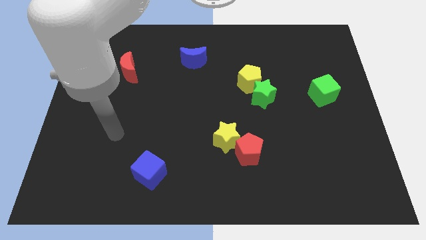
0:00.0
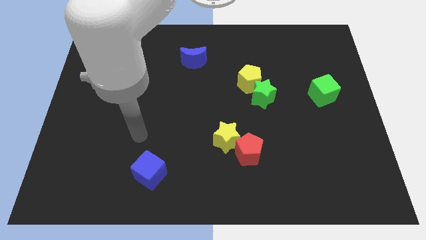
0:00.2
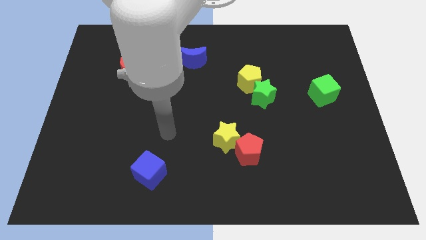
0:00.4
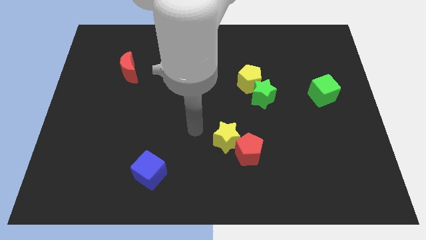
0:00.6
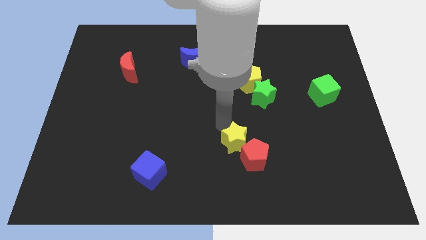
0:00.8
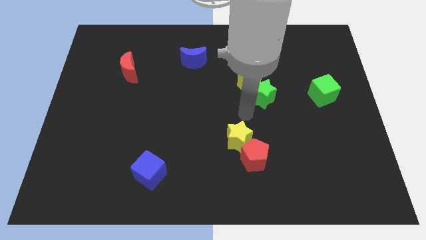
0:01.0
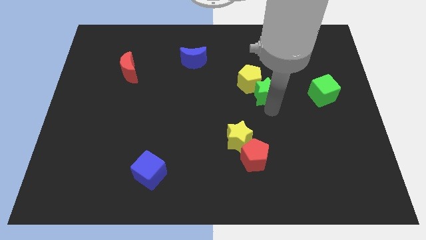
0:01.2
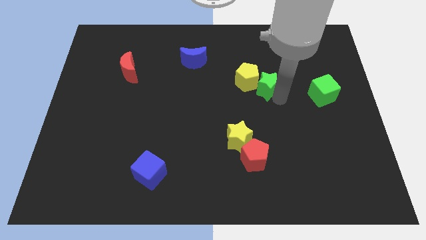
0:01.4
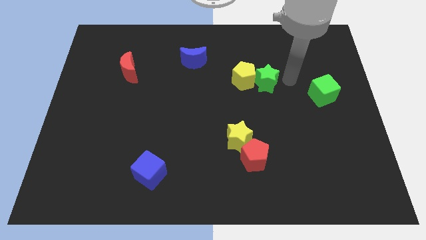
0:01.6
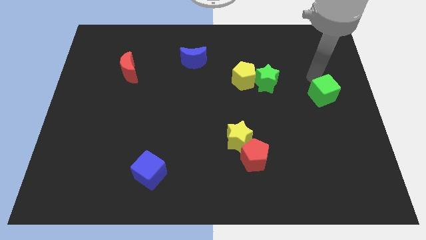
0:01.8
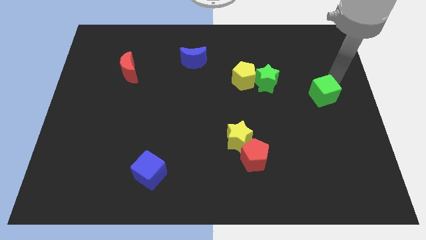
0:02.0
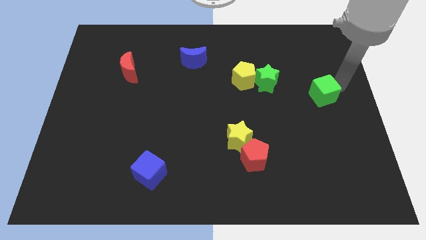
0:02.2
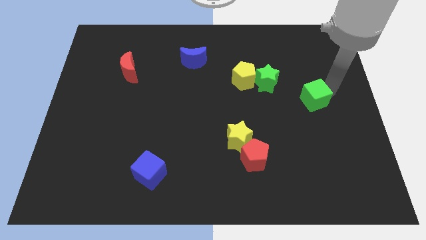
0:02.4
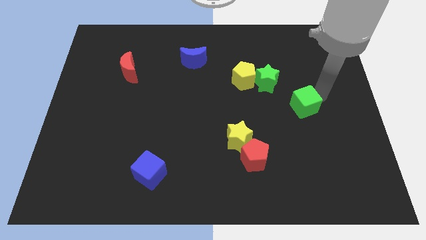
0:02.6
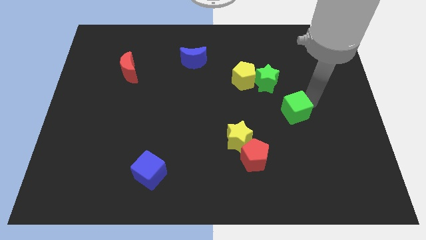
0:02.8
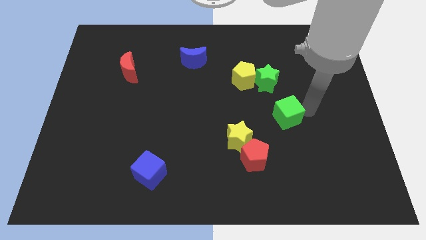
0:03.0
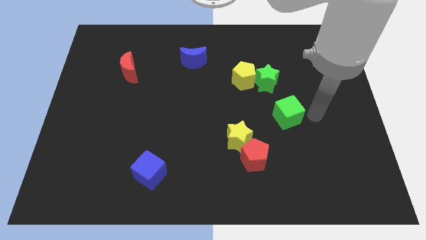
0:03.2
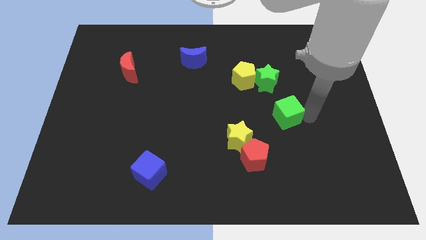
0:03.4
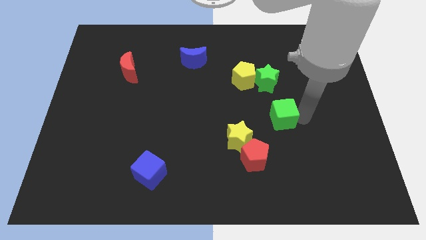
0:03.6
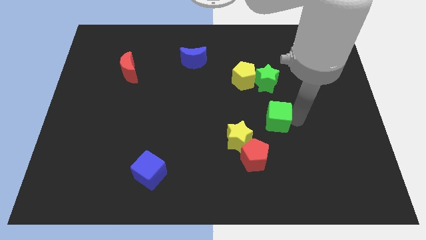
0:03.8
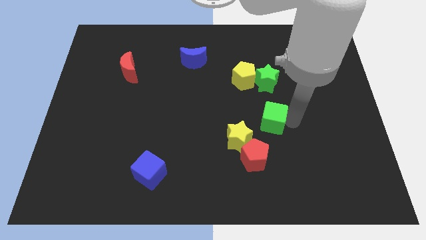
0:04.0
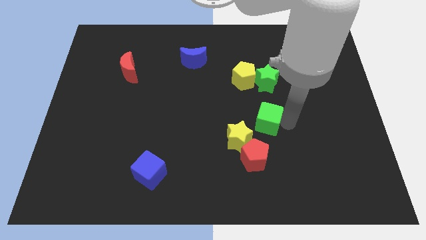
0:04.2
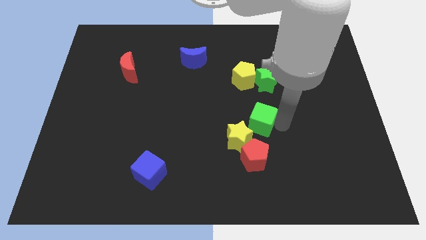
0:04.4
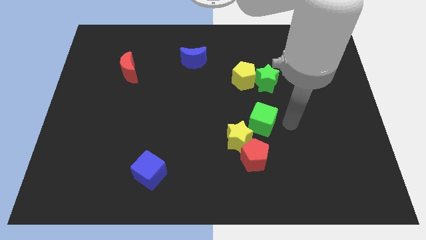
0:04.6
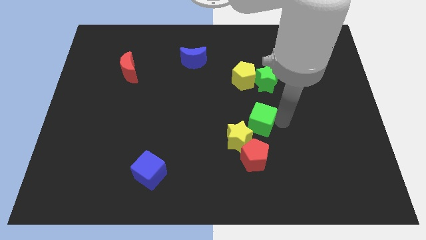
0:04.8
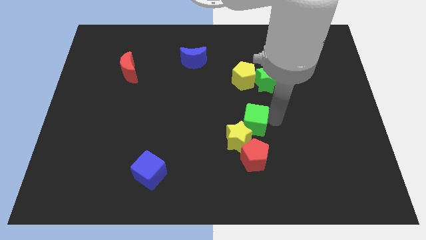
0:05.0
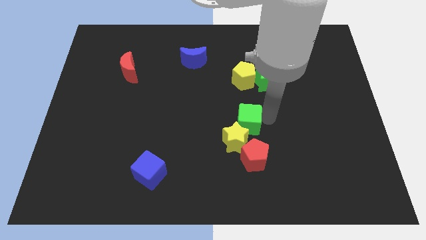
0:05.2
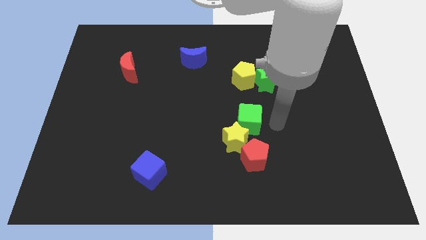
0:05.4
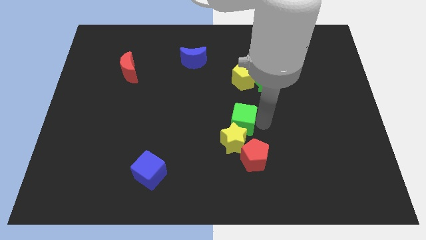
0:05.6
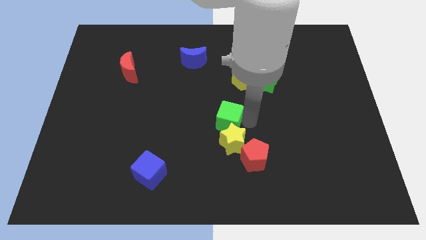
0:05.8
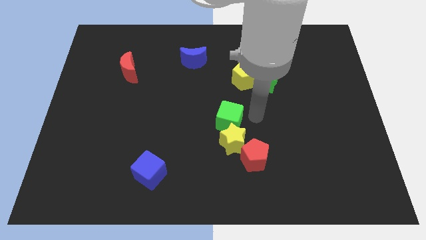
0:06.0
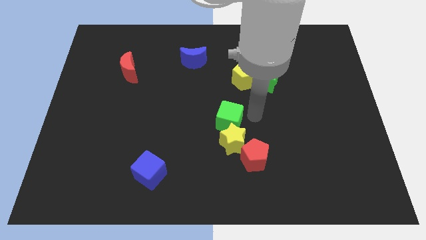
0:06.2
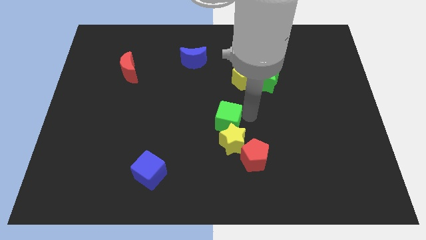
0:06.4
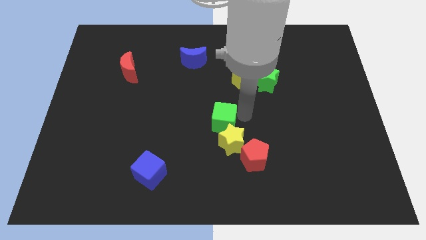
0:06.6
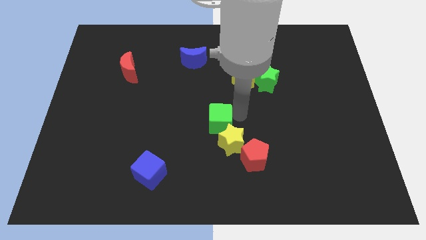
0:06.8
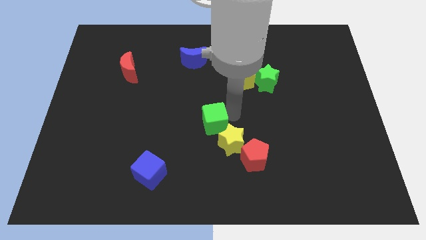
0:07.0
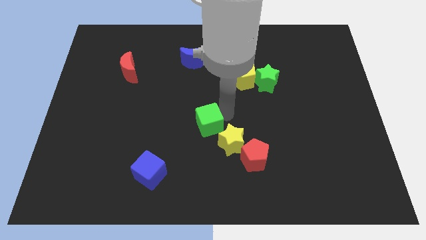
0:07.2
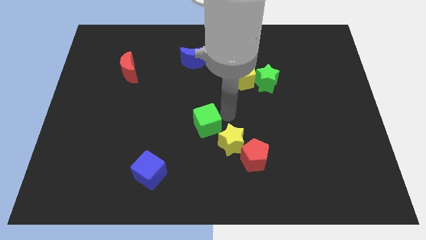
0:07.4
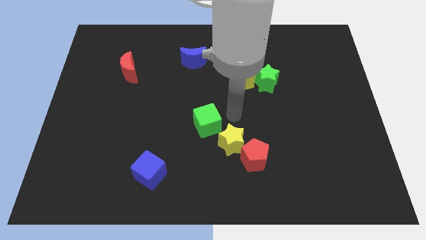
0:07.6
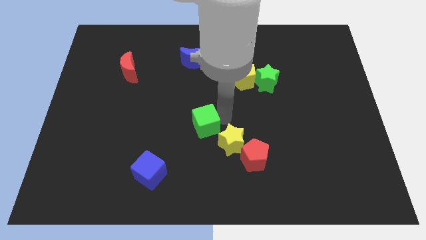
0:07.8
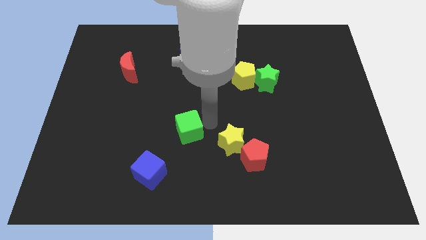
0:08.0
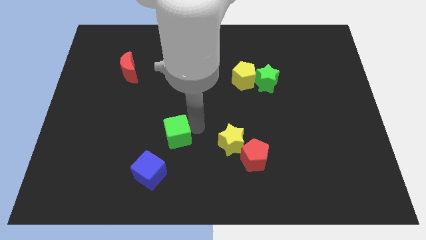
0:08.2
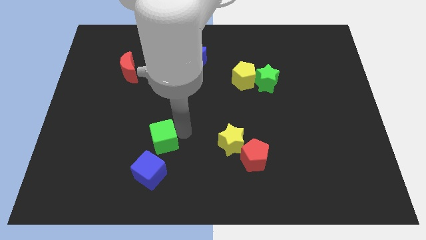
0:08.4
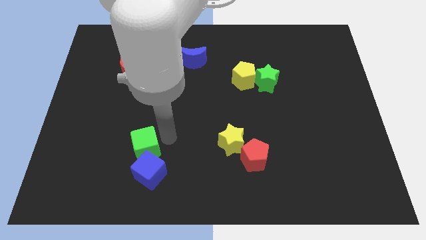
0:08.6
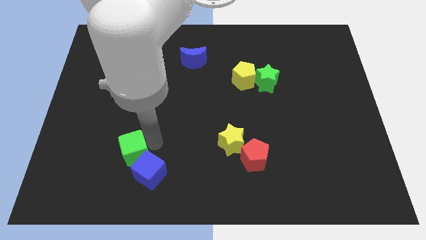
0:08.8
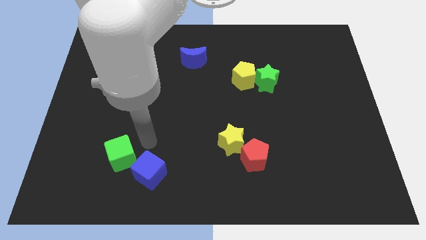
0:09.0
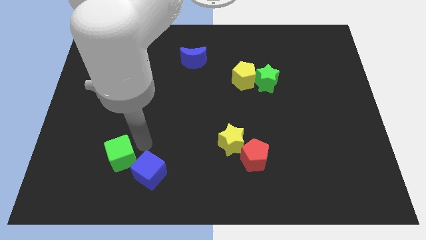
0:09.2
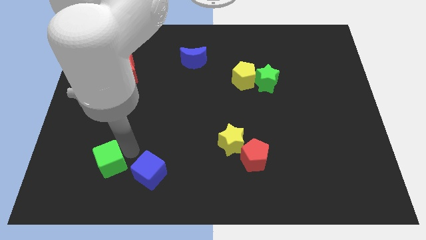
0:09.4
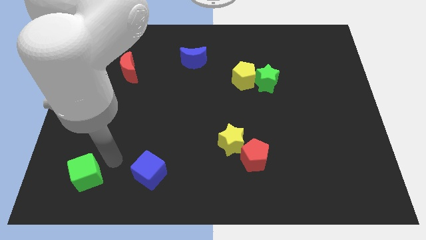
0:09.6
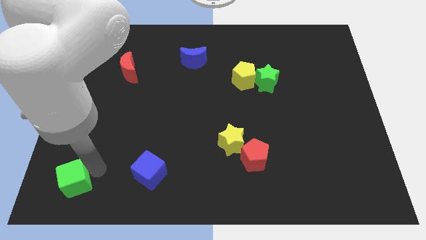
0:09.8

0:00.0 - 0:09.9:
push the green cube to the bottom left

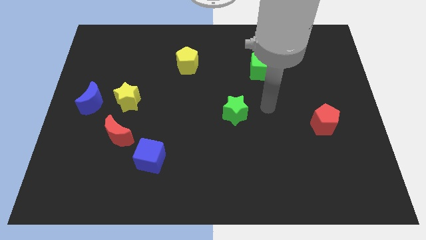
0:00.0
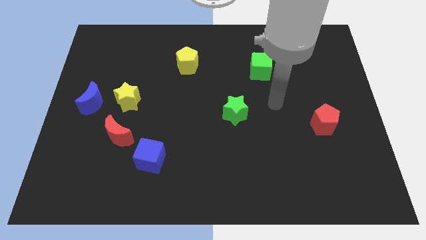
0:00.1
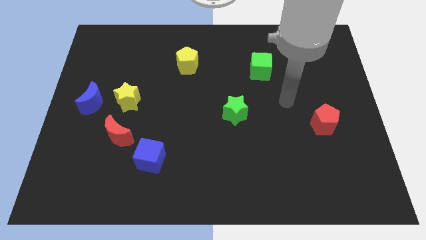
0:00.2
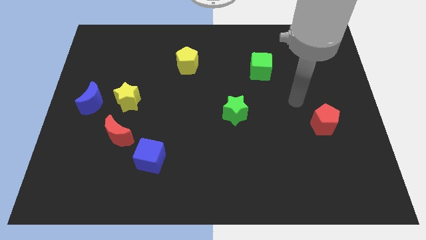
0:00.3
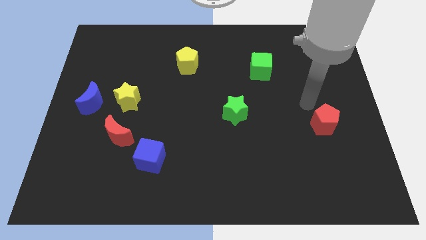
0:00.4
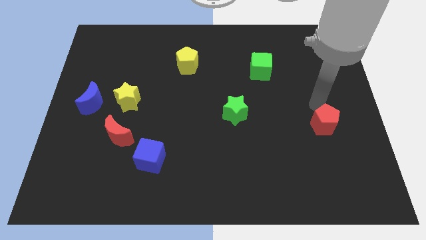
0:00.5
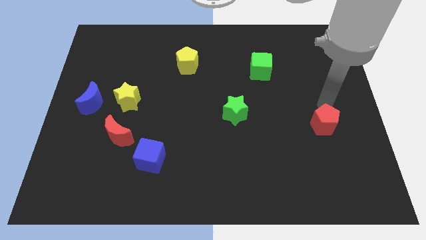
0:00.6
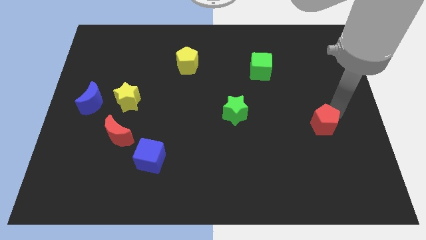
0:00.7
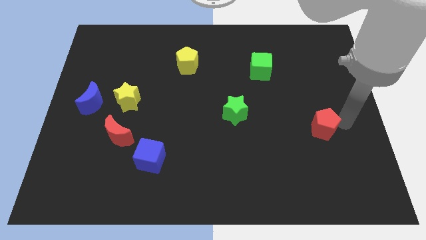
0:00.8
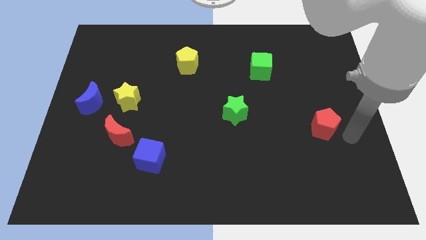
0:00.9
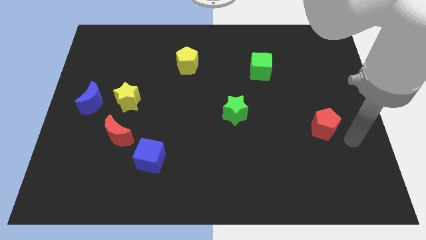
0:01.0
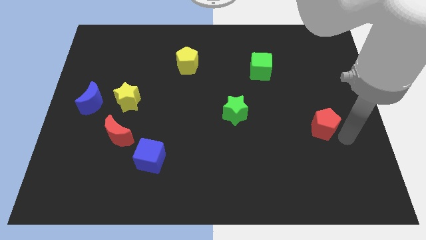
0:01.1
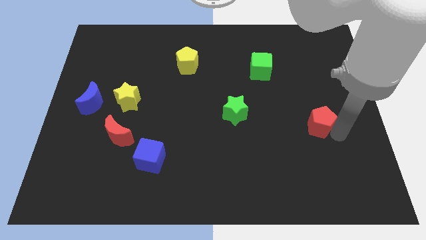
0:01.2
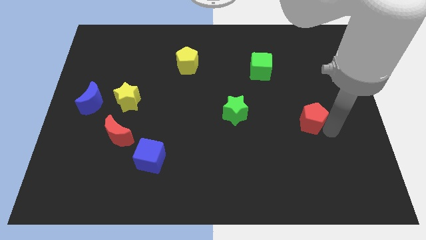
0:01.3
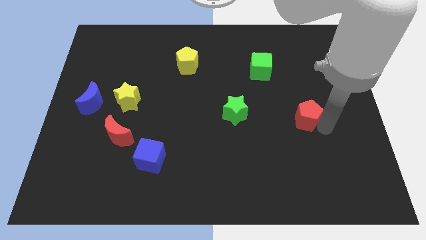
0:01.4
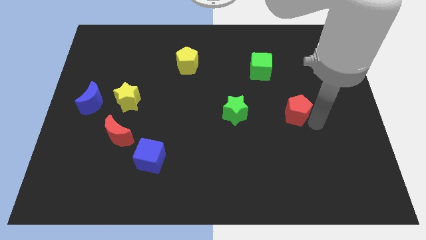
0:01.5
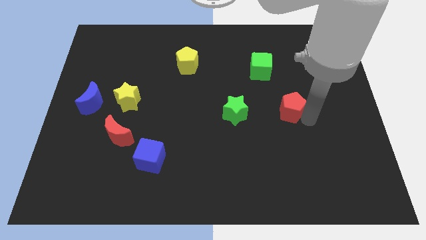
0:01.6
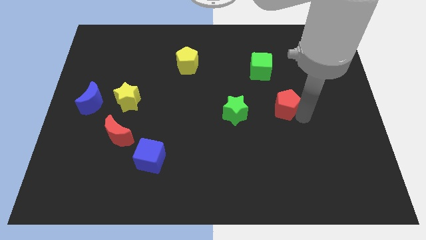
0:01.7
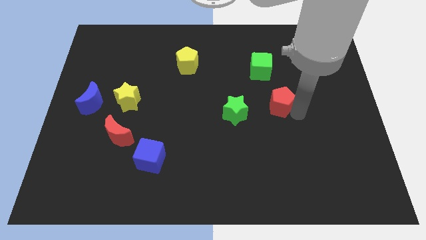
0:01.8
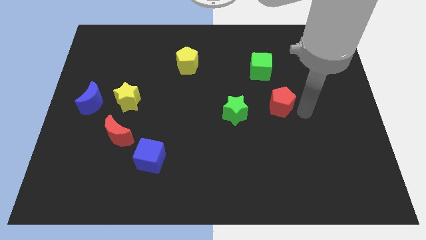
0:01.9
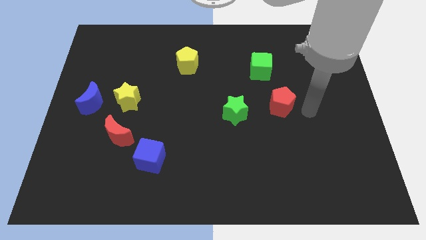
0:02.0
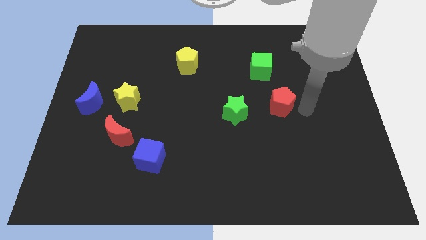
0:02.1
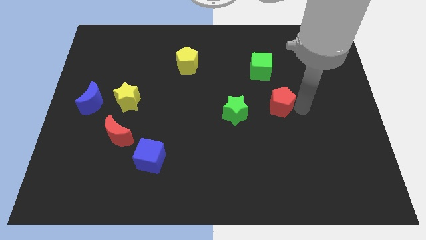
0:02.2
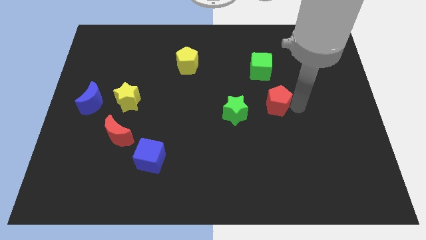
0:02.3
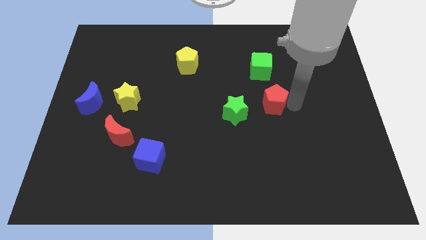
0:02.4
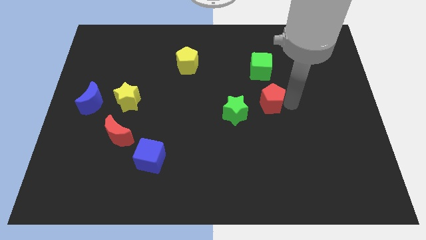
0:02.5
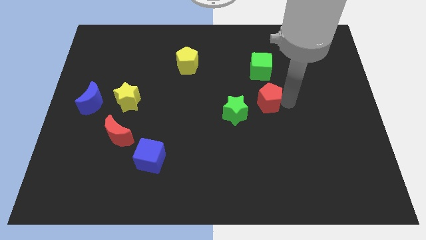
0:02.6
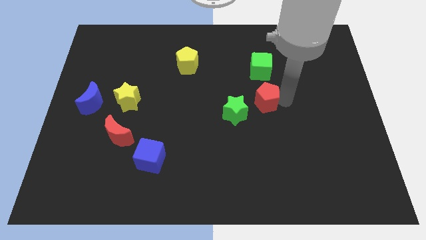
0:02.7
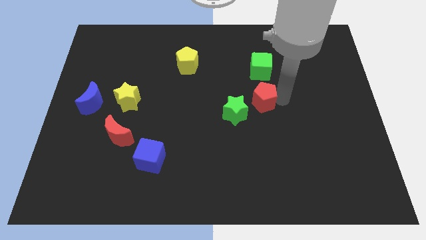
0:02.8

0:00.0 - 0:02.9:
push the red pentagon to the center

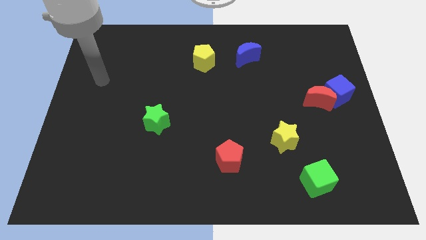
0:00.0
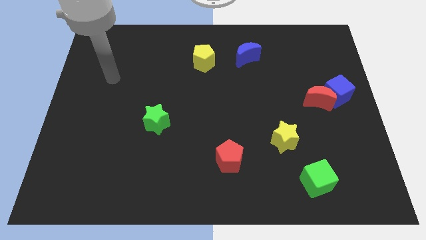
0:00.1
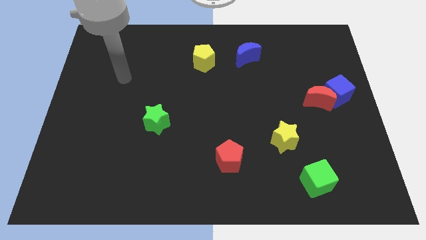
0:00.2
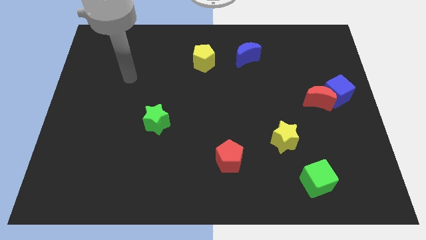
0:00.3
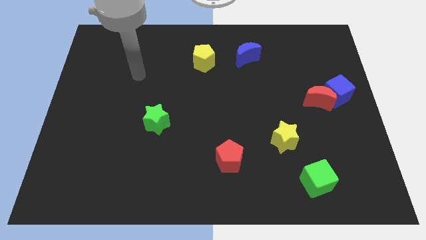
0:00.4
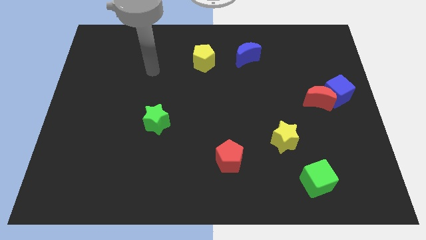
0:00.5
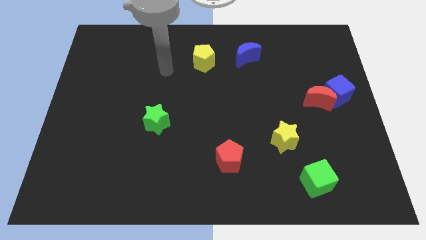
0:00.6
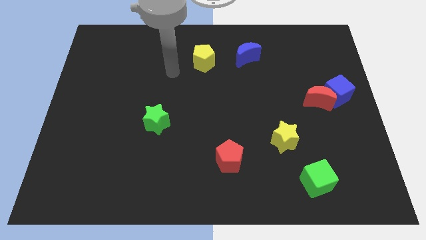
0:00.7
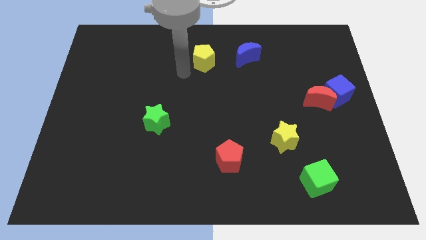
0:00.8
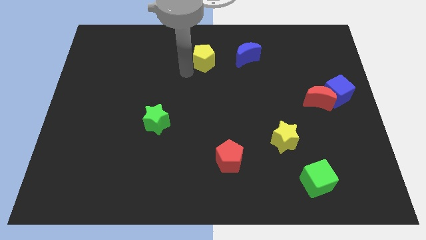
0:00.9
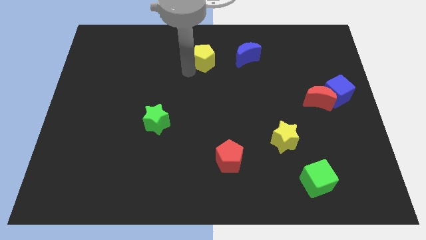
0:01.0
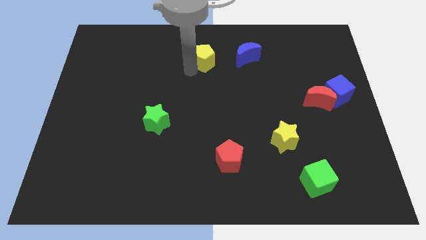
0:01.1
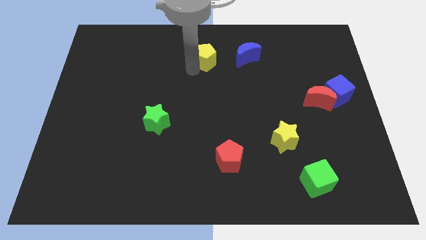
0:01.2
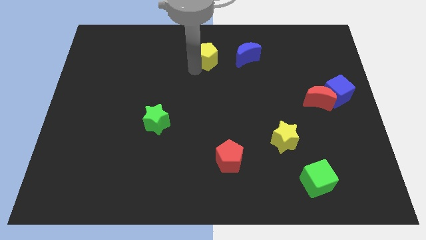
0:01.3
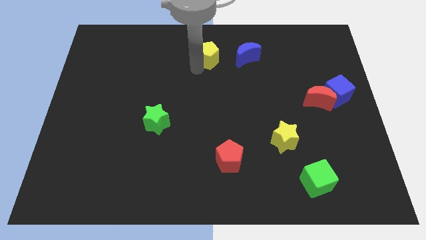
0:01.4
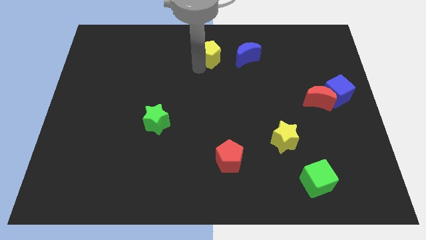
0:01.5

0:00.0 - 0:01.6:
move the yellow pentagon to the top side
